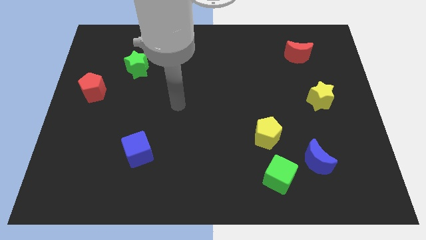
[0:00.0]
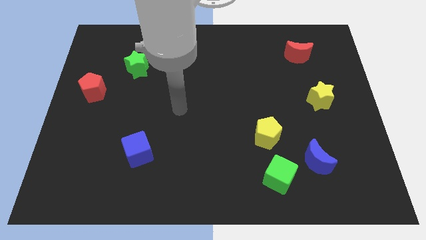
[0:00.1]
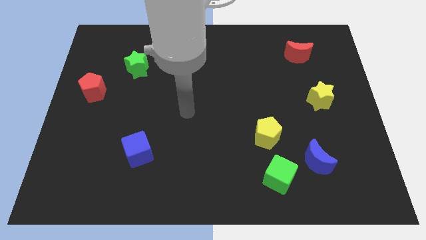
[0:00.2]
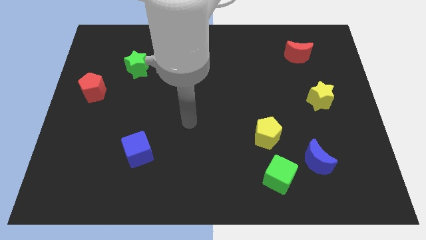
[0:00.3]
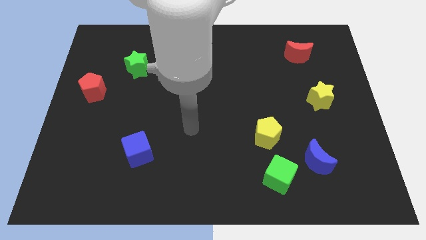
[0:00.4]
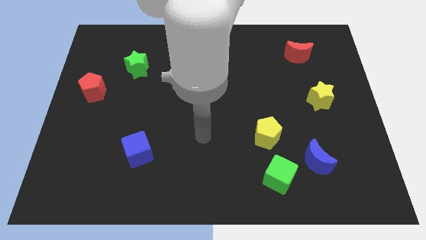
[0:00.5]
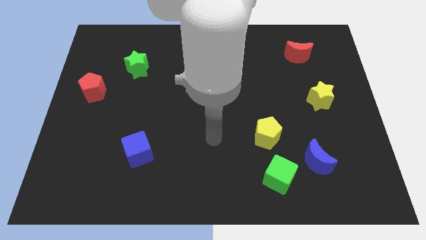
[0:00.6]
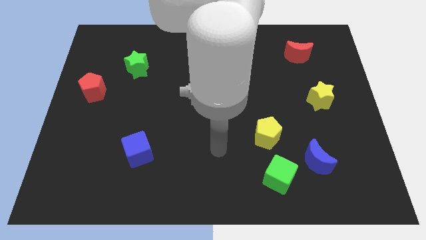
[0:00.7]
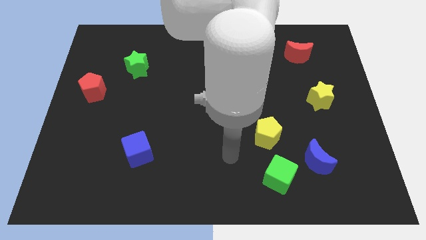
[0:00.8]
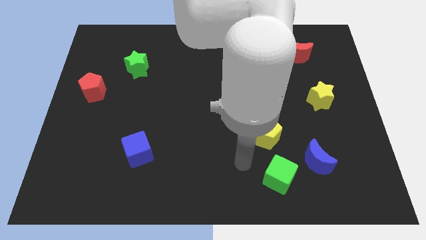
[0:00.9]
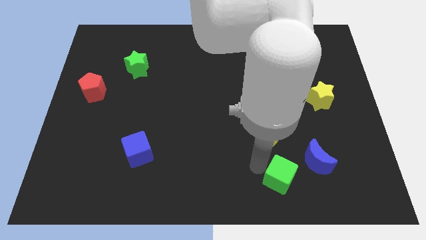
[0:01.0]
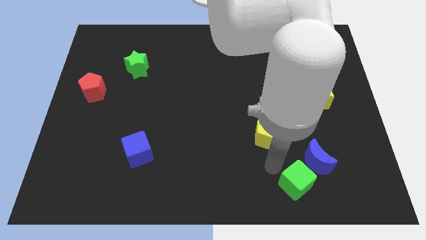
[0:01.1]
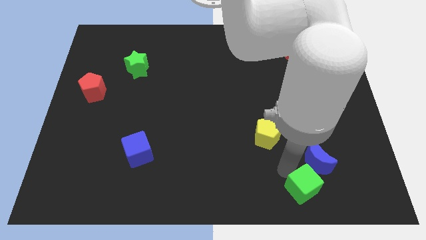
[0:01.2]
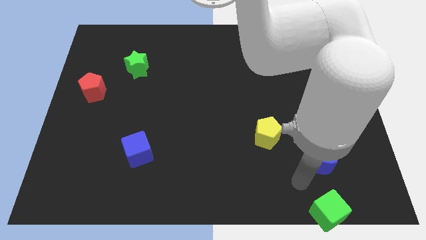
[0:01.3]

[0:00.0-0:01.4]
pull the blue moon apart from the green cube

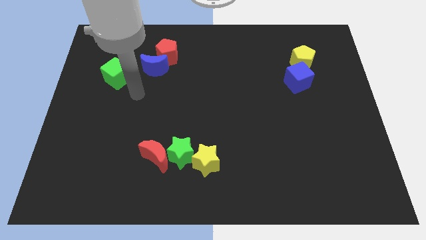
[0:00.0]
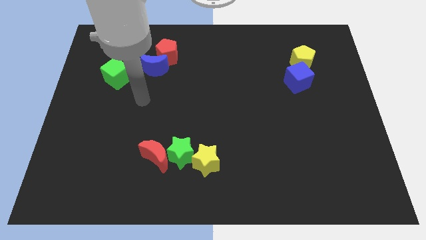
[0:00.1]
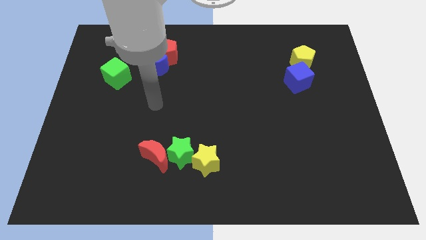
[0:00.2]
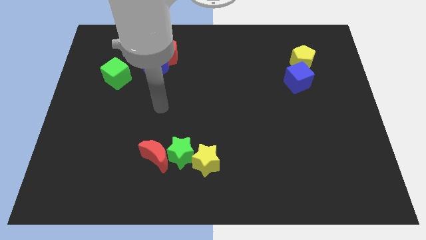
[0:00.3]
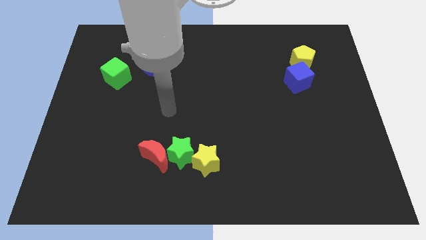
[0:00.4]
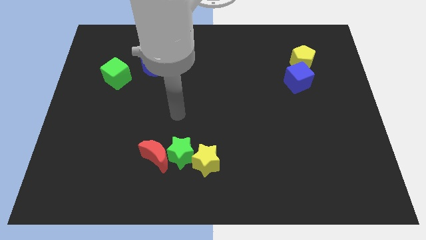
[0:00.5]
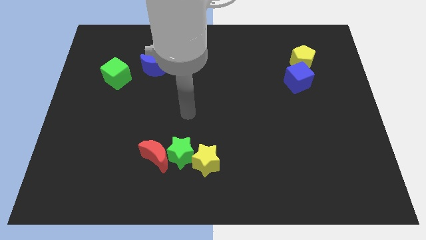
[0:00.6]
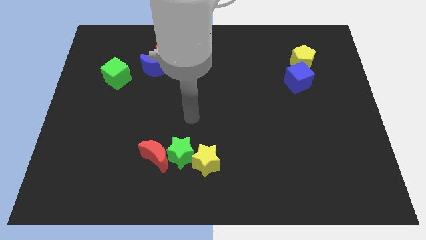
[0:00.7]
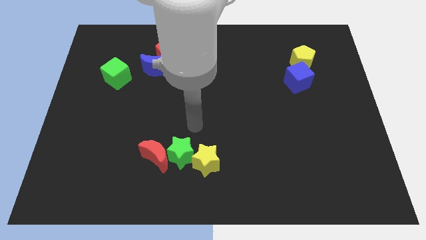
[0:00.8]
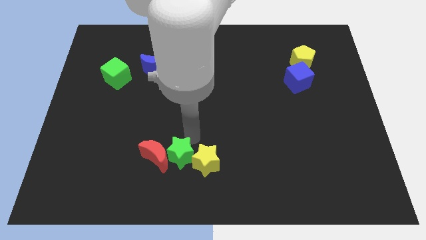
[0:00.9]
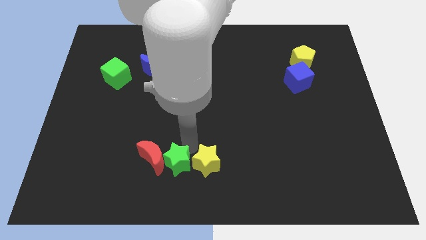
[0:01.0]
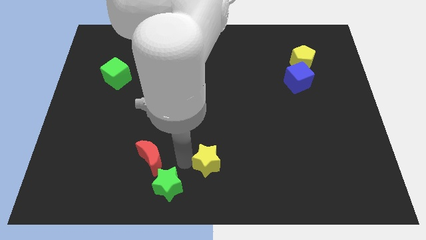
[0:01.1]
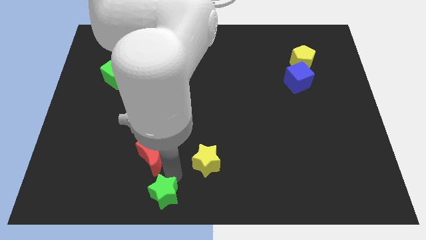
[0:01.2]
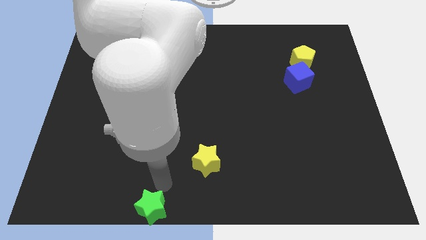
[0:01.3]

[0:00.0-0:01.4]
separate the red moon from the green star

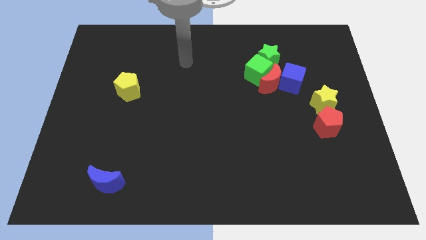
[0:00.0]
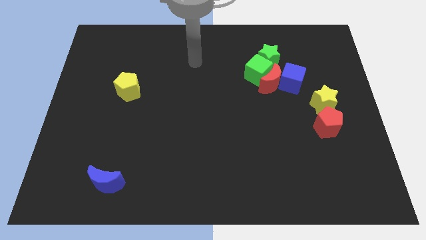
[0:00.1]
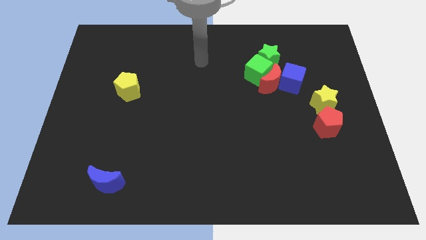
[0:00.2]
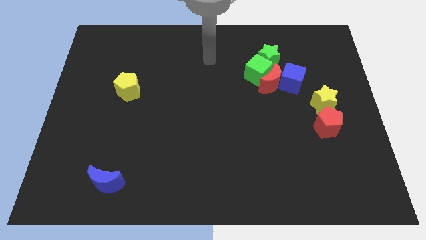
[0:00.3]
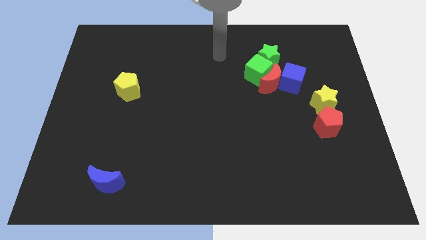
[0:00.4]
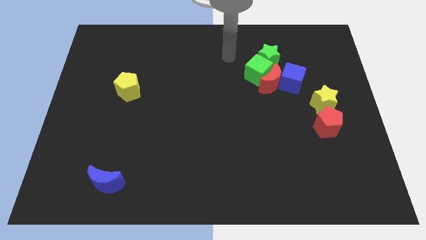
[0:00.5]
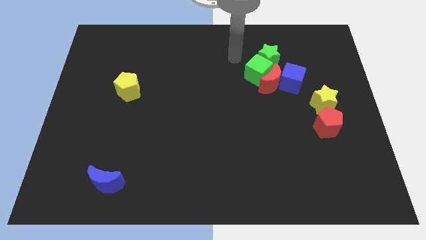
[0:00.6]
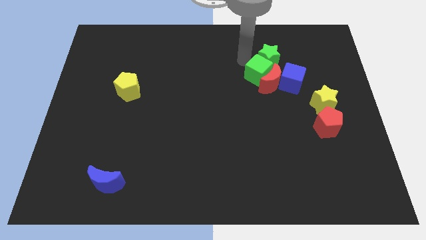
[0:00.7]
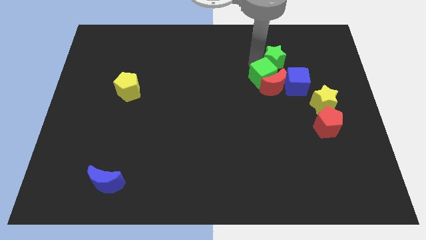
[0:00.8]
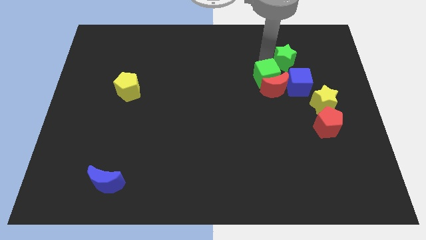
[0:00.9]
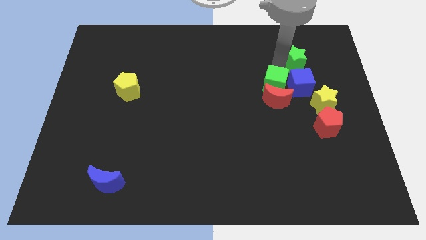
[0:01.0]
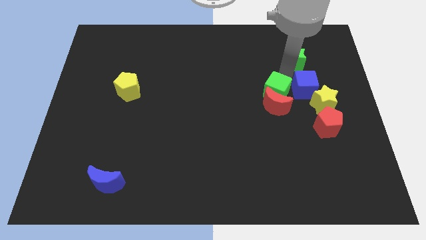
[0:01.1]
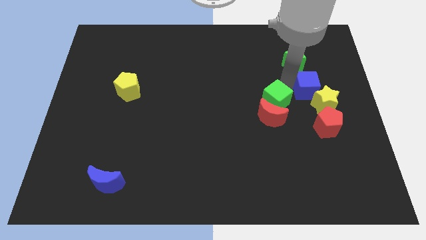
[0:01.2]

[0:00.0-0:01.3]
move the red moon away from the green cube, blue cube, and green star

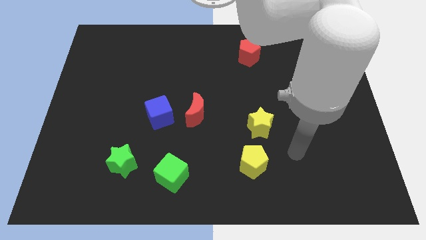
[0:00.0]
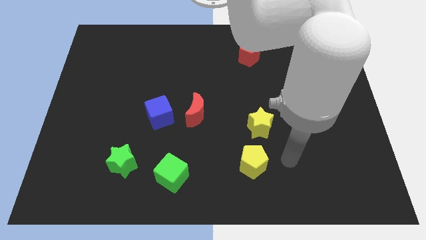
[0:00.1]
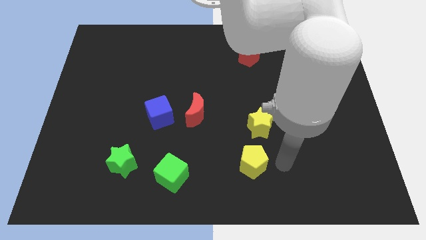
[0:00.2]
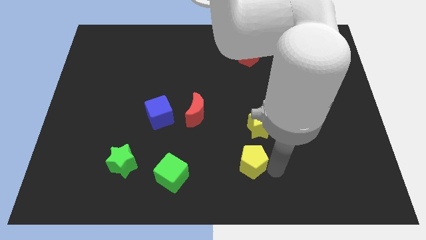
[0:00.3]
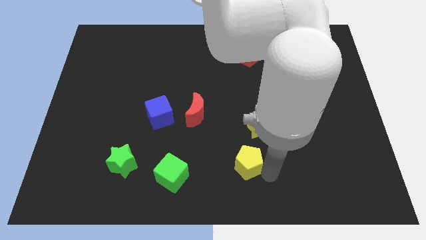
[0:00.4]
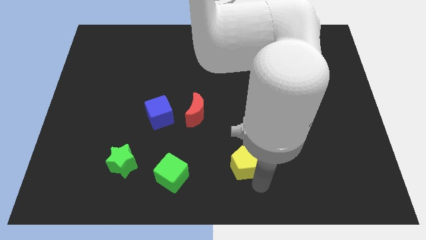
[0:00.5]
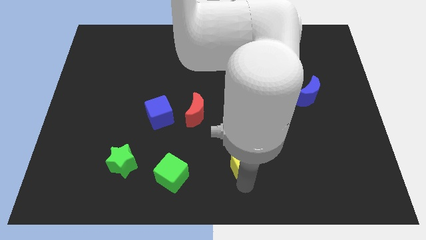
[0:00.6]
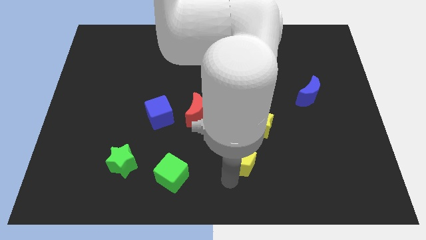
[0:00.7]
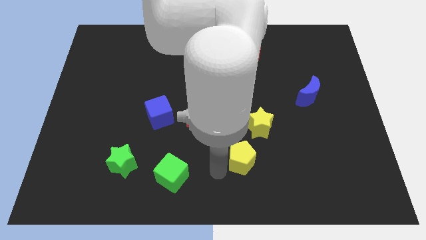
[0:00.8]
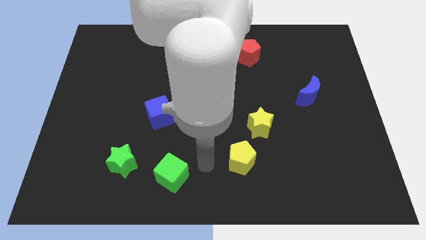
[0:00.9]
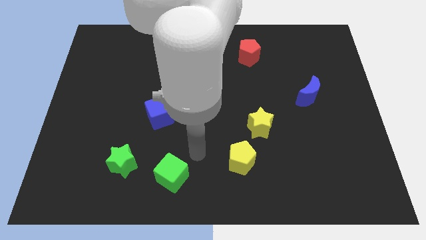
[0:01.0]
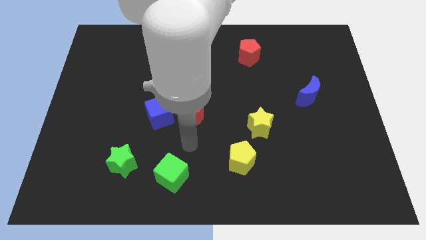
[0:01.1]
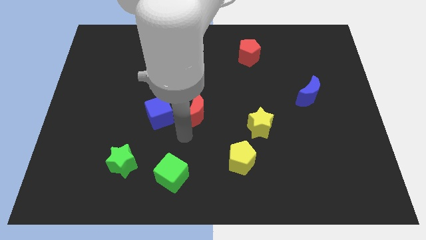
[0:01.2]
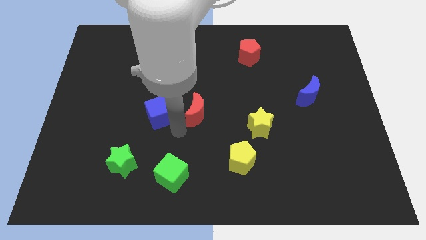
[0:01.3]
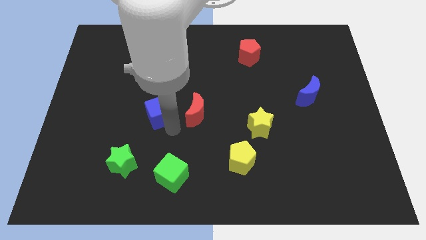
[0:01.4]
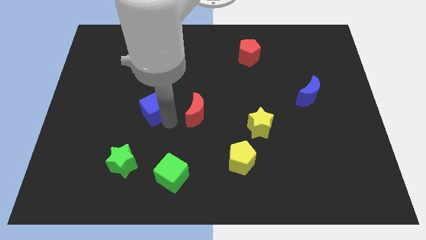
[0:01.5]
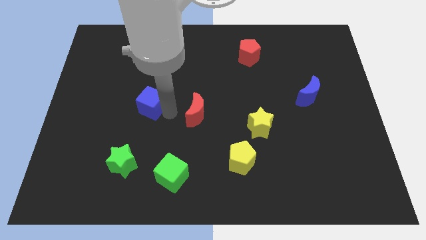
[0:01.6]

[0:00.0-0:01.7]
move the red moon away from the blue cube

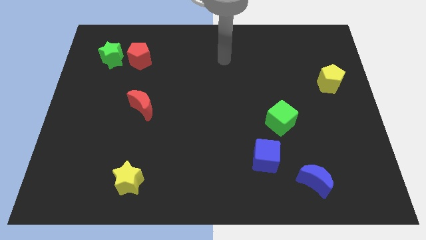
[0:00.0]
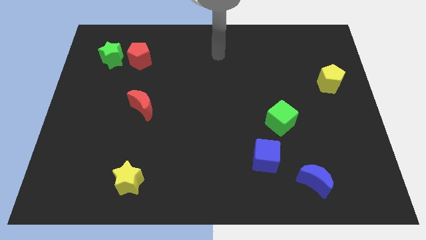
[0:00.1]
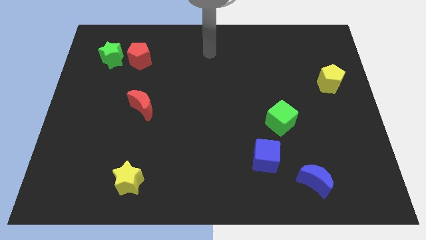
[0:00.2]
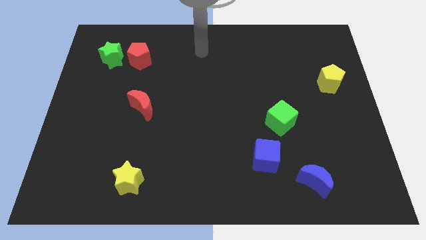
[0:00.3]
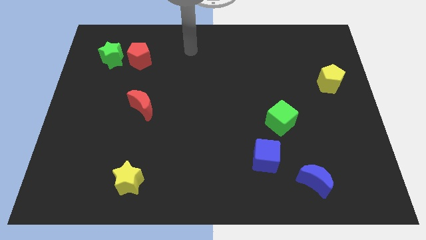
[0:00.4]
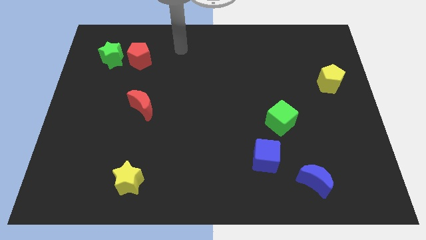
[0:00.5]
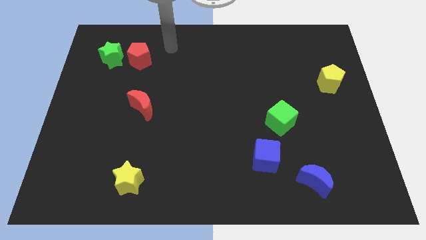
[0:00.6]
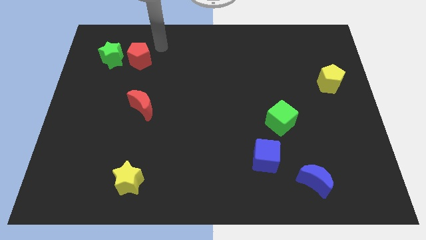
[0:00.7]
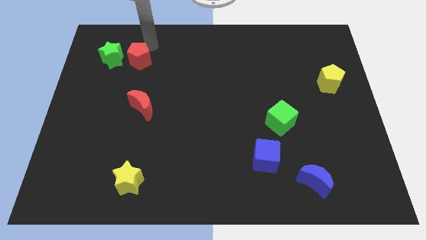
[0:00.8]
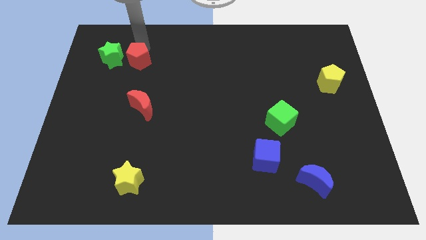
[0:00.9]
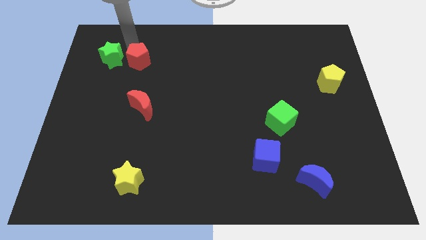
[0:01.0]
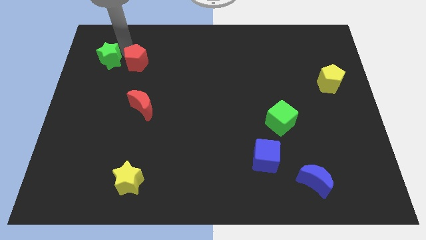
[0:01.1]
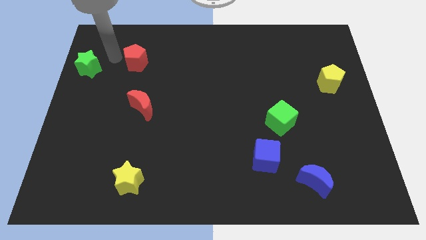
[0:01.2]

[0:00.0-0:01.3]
move the red pentagon away from the green star

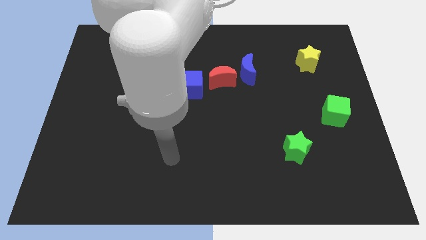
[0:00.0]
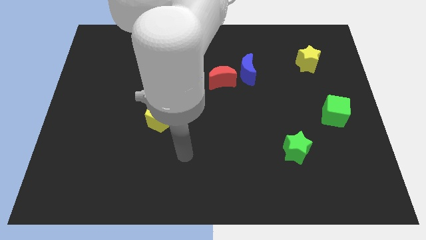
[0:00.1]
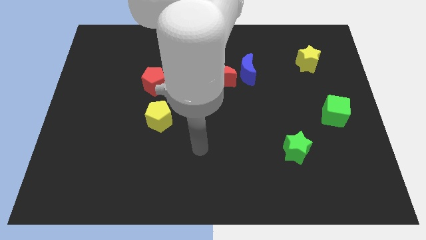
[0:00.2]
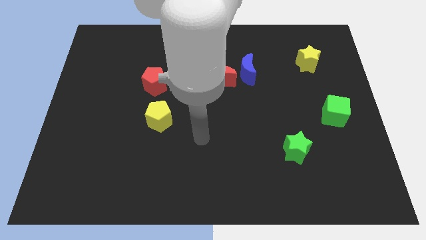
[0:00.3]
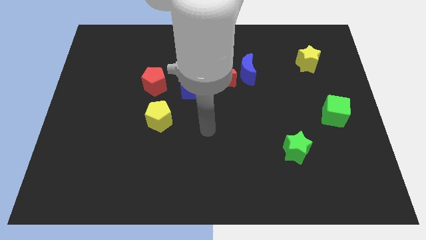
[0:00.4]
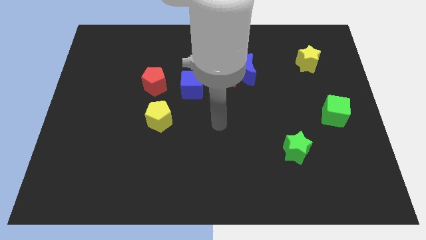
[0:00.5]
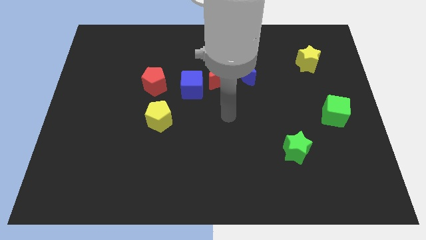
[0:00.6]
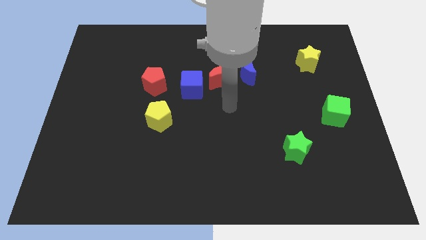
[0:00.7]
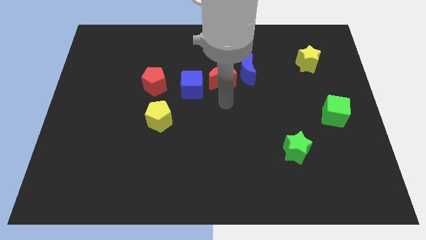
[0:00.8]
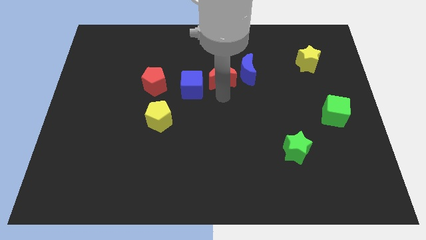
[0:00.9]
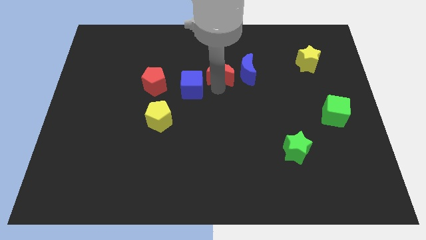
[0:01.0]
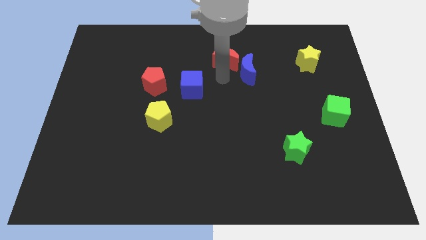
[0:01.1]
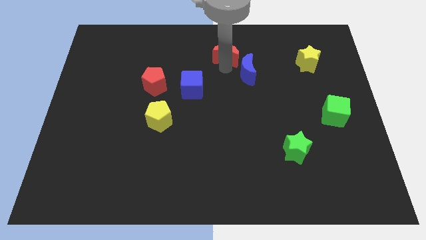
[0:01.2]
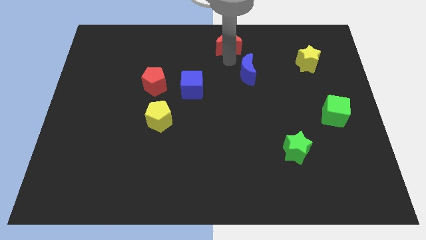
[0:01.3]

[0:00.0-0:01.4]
pull the blue moon apart from the red moon

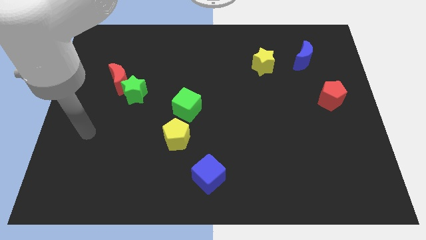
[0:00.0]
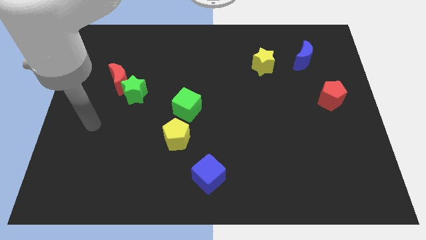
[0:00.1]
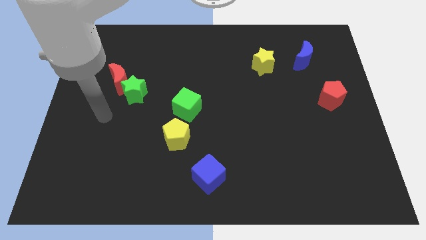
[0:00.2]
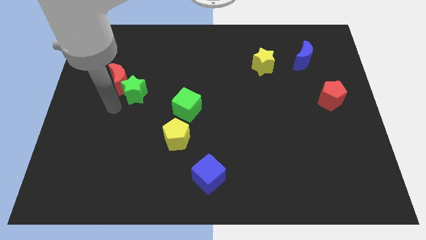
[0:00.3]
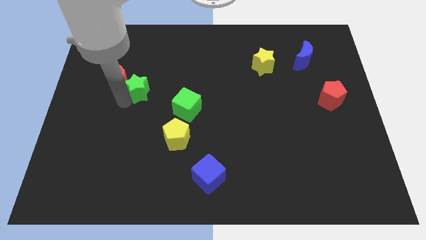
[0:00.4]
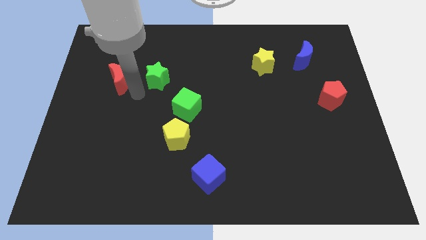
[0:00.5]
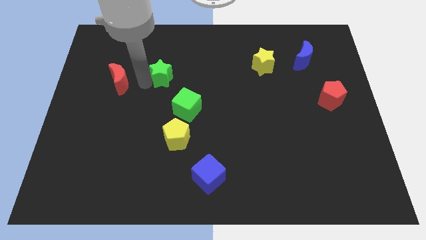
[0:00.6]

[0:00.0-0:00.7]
move the red moon away from the green star

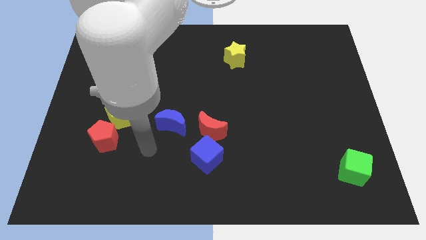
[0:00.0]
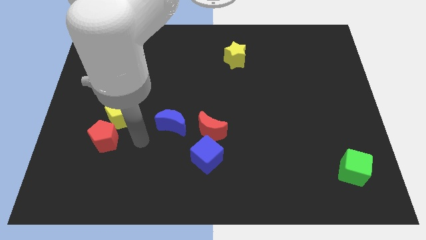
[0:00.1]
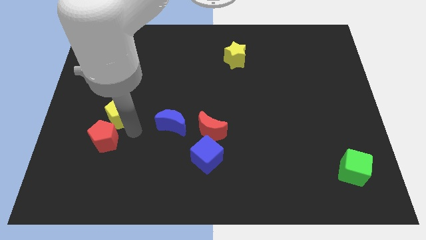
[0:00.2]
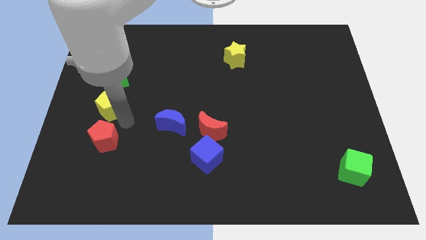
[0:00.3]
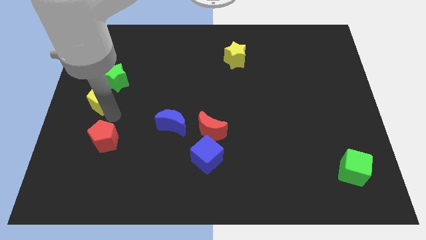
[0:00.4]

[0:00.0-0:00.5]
pull the red pentagon apart from the yellow pentagon
